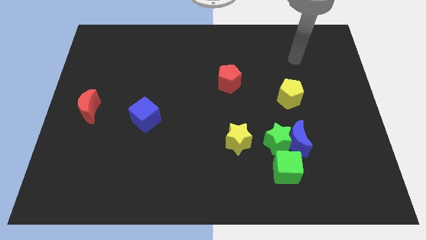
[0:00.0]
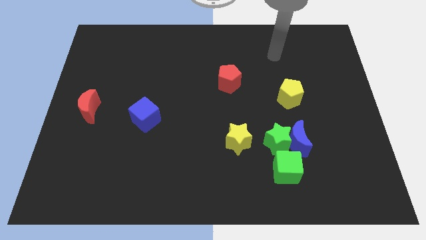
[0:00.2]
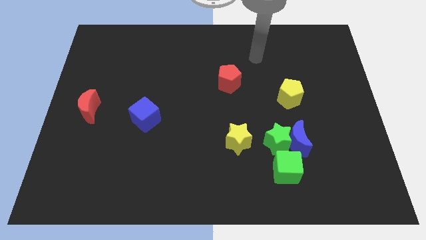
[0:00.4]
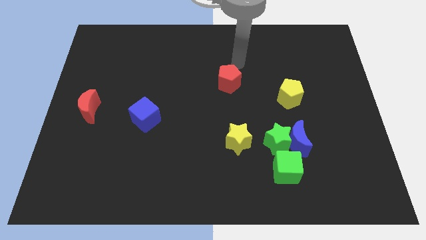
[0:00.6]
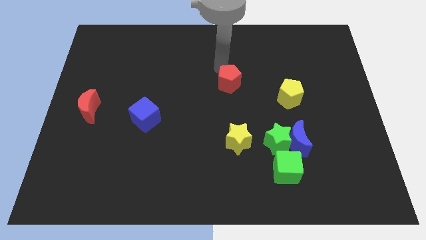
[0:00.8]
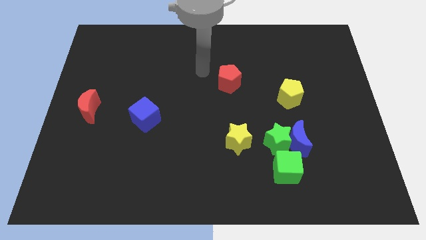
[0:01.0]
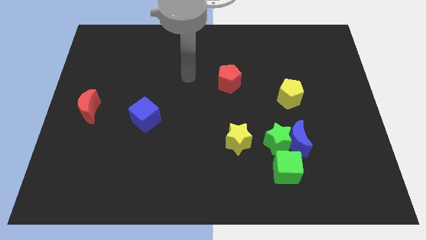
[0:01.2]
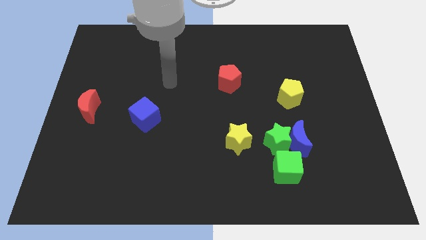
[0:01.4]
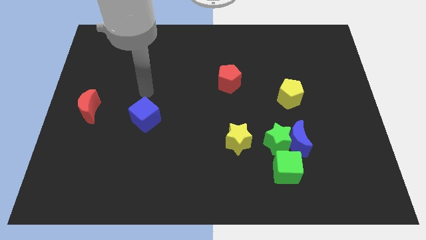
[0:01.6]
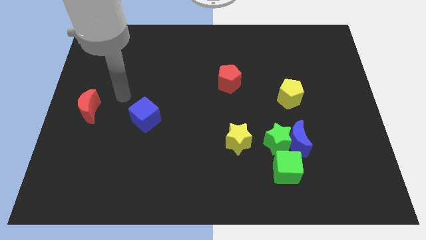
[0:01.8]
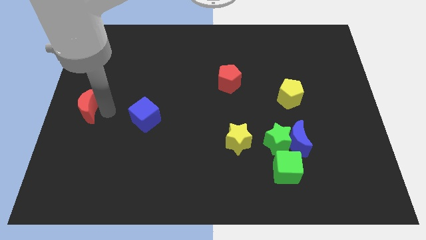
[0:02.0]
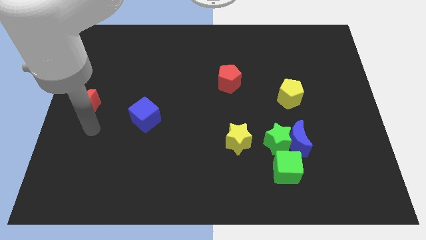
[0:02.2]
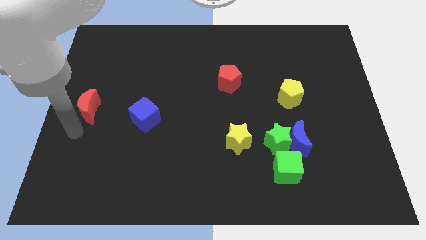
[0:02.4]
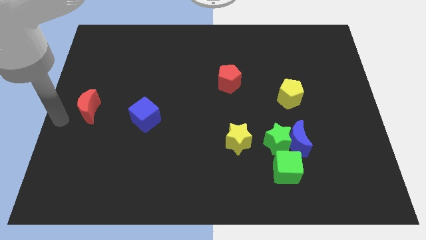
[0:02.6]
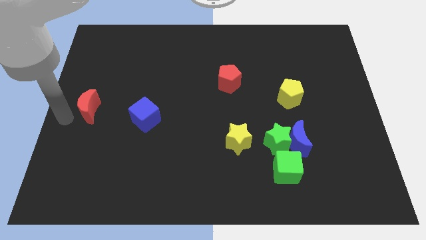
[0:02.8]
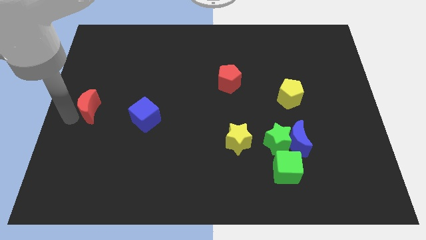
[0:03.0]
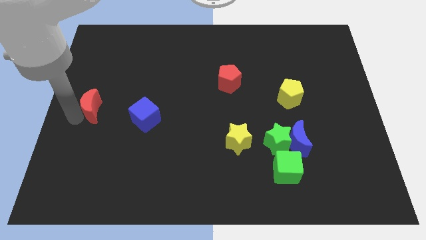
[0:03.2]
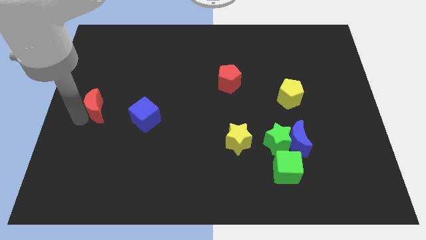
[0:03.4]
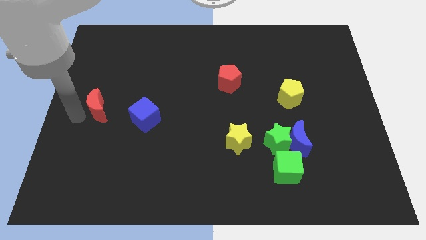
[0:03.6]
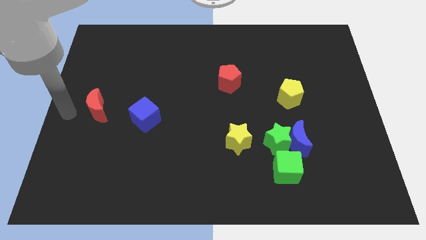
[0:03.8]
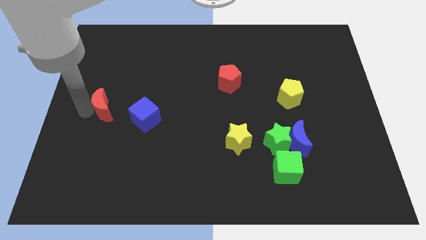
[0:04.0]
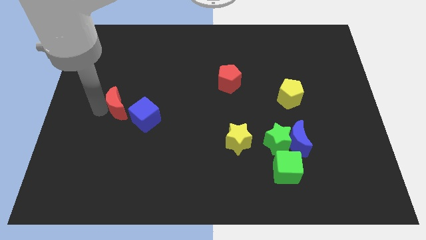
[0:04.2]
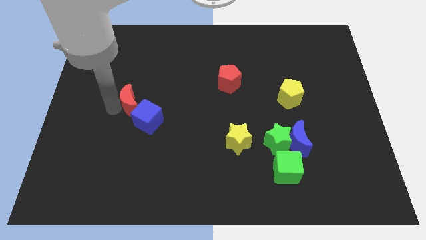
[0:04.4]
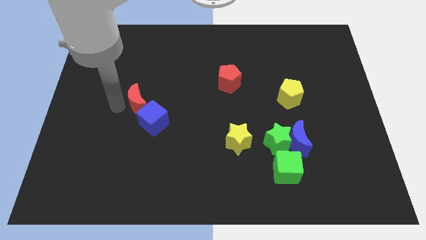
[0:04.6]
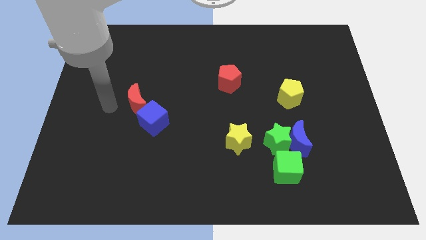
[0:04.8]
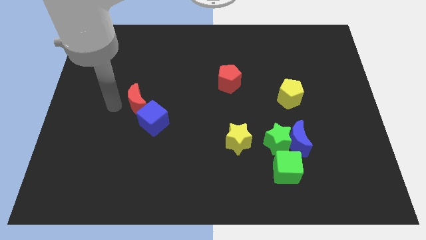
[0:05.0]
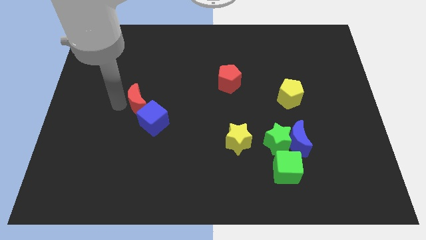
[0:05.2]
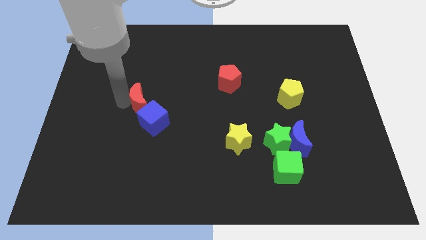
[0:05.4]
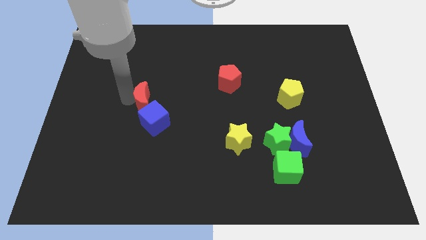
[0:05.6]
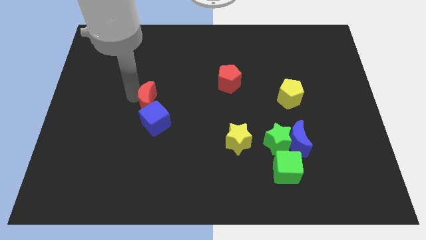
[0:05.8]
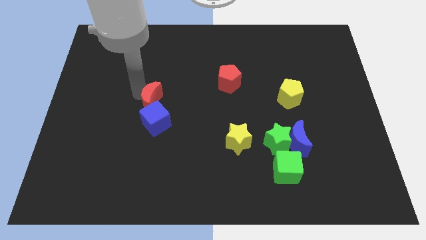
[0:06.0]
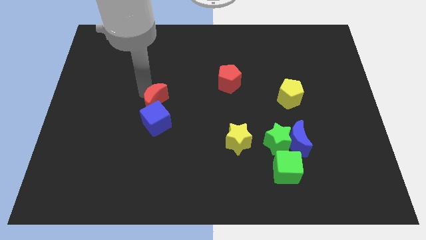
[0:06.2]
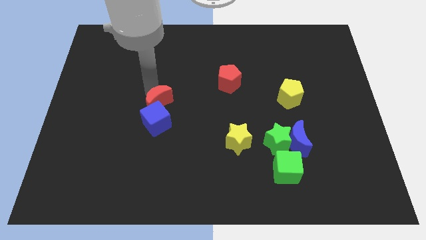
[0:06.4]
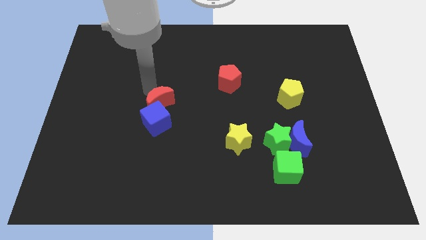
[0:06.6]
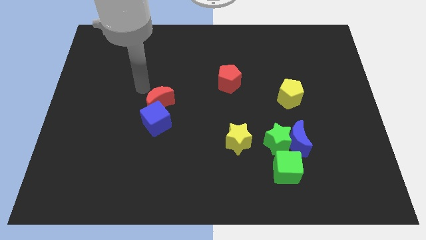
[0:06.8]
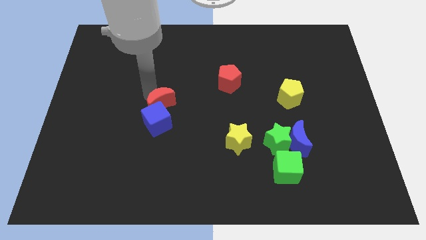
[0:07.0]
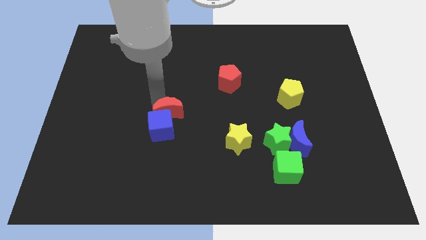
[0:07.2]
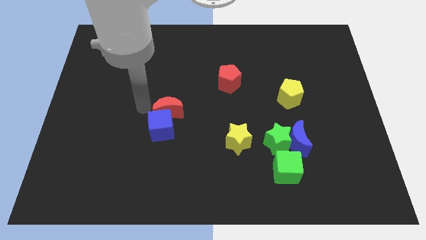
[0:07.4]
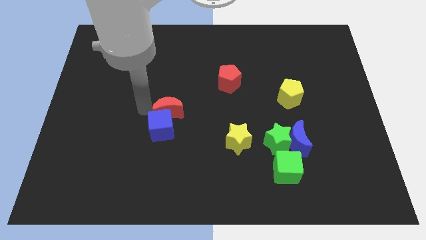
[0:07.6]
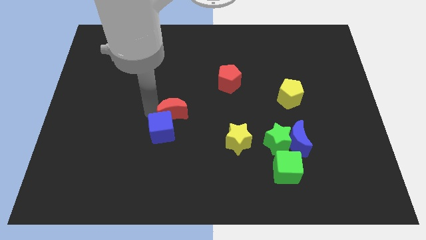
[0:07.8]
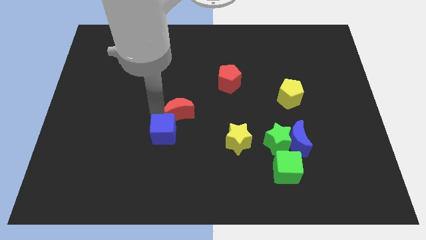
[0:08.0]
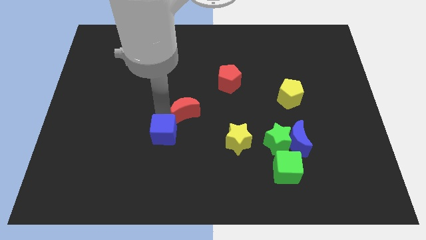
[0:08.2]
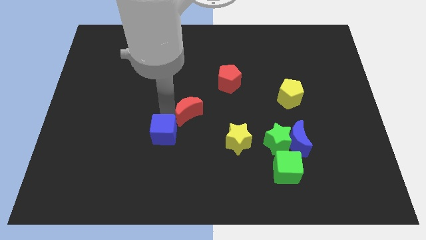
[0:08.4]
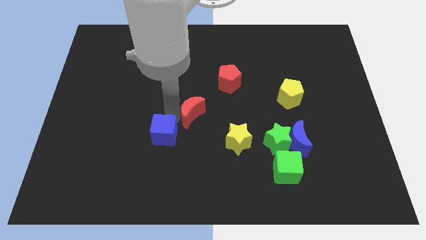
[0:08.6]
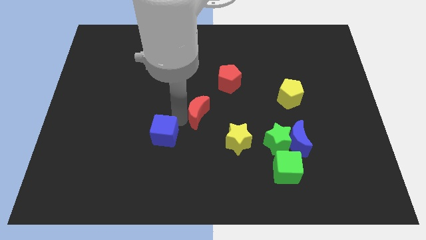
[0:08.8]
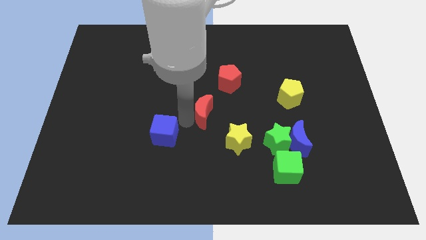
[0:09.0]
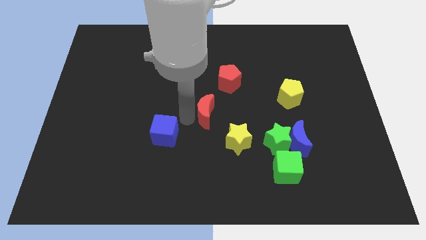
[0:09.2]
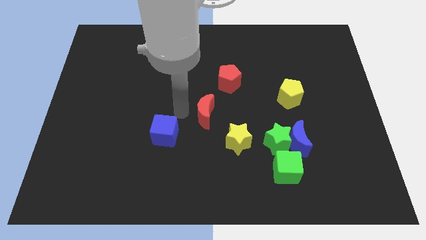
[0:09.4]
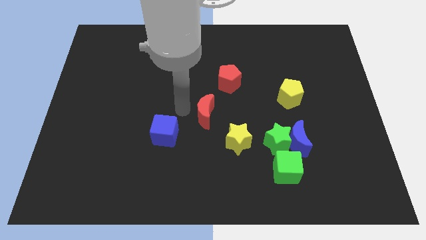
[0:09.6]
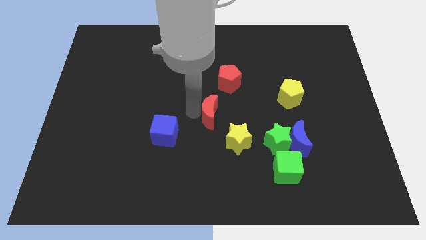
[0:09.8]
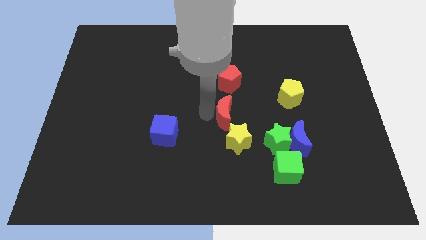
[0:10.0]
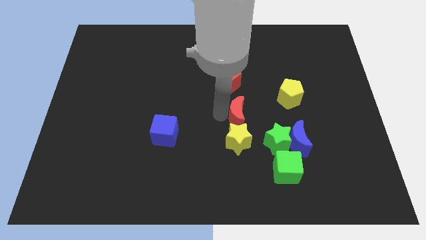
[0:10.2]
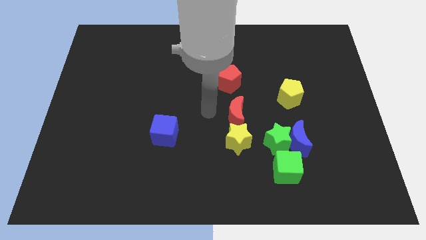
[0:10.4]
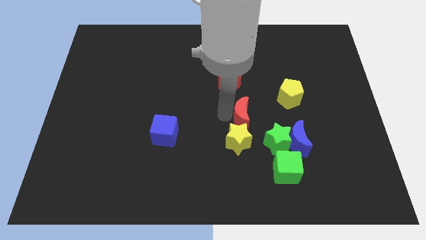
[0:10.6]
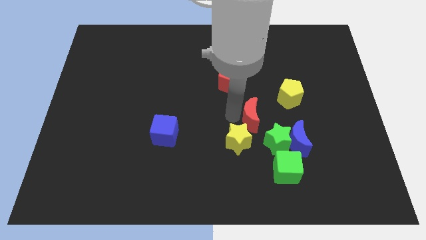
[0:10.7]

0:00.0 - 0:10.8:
slide the red moon to the top left side of the blue moon

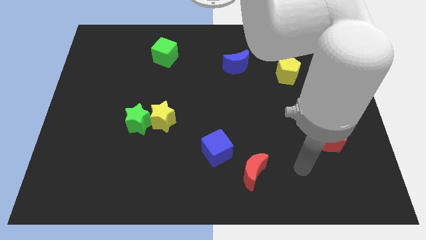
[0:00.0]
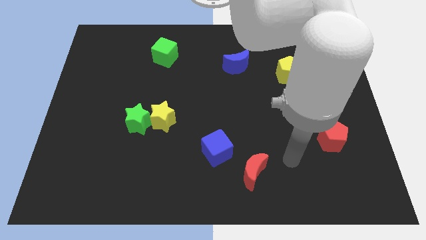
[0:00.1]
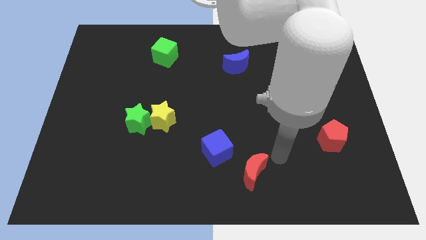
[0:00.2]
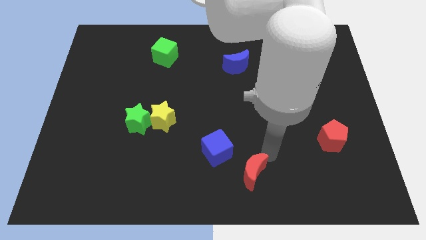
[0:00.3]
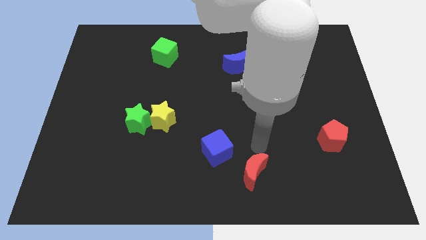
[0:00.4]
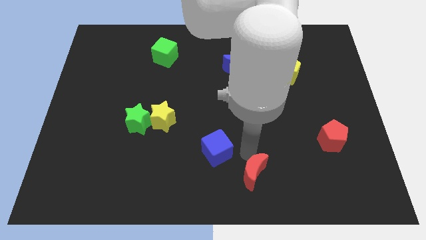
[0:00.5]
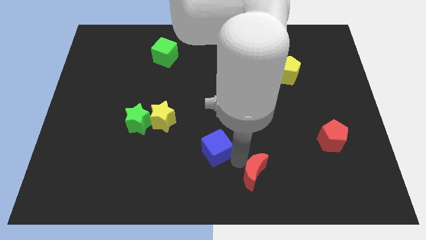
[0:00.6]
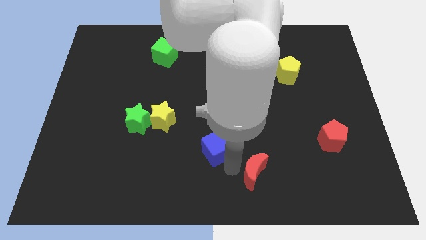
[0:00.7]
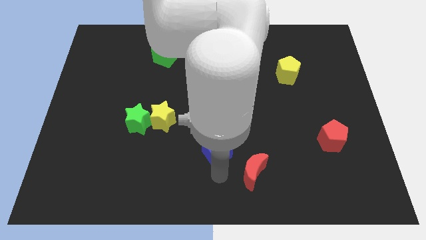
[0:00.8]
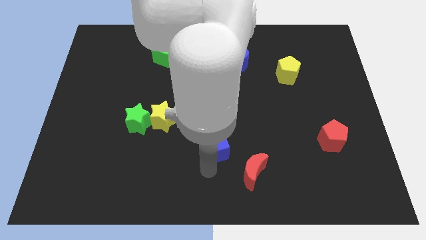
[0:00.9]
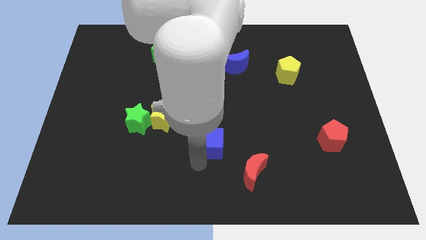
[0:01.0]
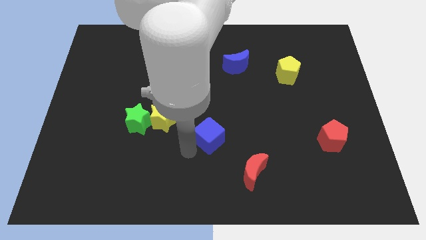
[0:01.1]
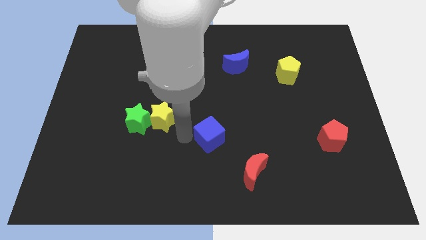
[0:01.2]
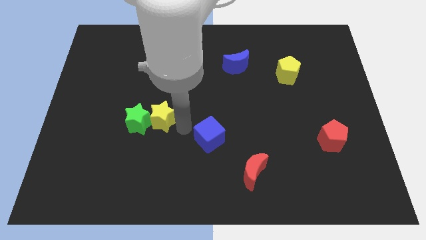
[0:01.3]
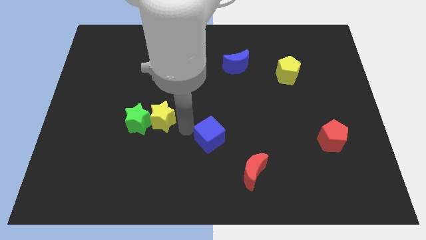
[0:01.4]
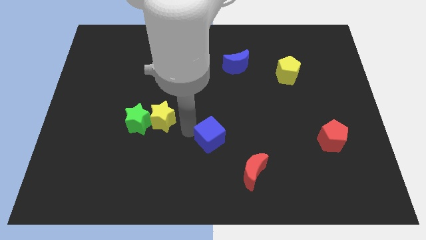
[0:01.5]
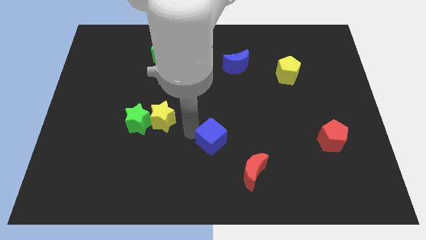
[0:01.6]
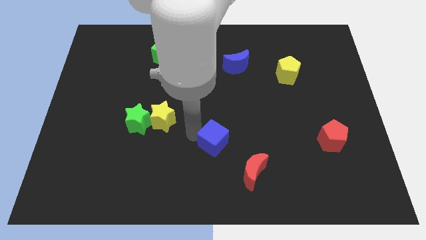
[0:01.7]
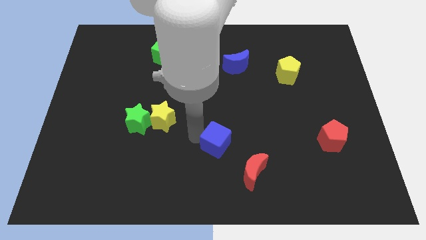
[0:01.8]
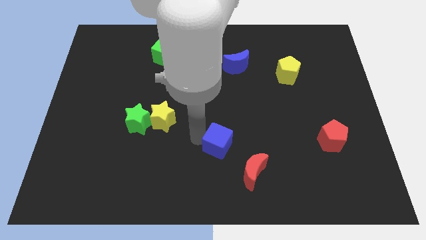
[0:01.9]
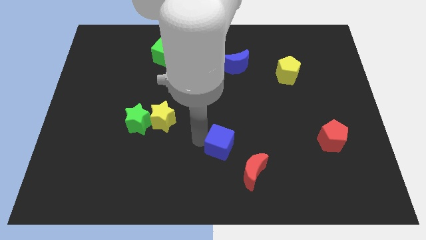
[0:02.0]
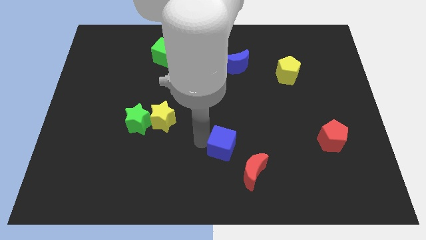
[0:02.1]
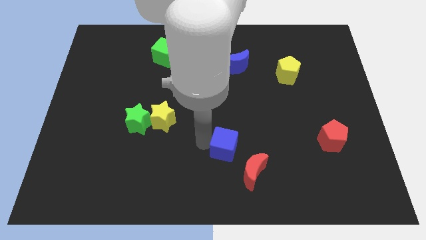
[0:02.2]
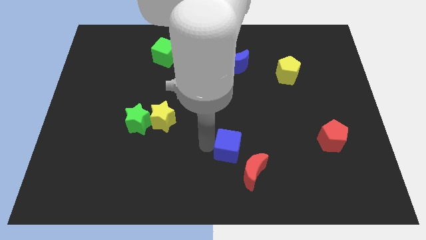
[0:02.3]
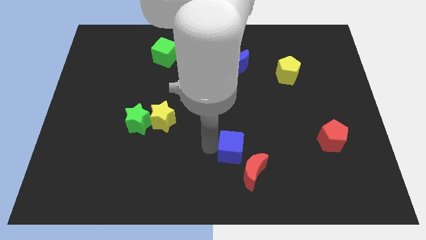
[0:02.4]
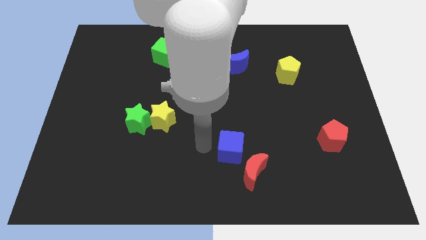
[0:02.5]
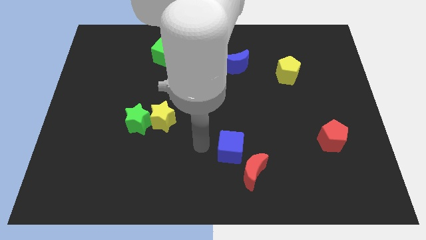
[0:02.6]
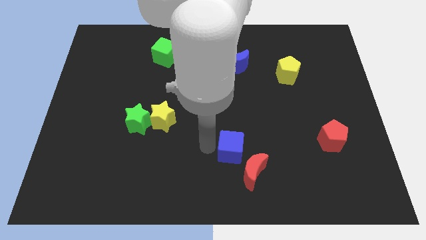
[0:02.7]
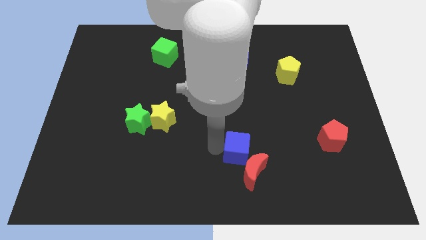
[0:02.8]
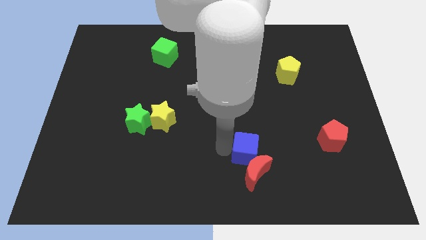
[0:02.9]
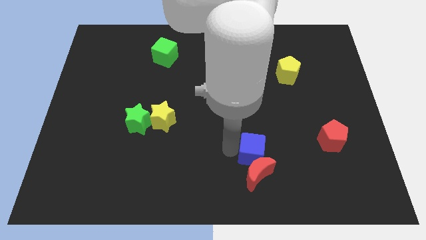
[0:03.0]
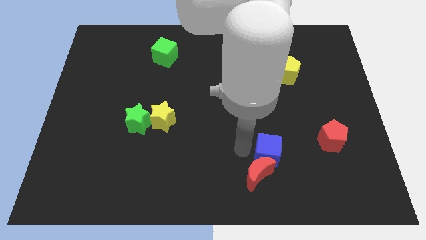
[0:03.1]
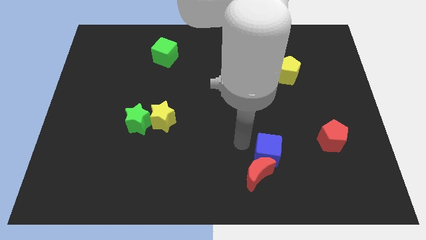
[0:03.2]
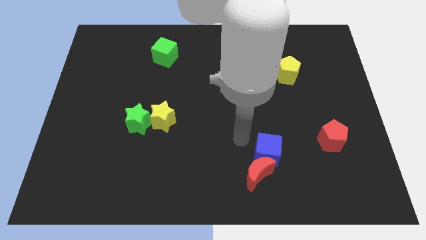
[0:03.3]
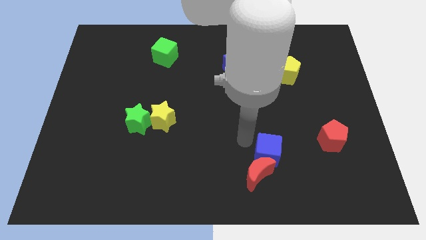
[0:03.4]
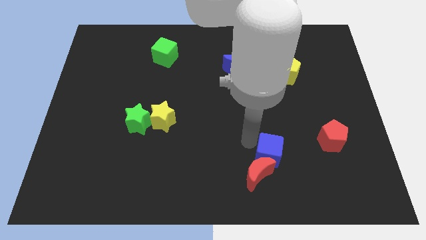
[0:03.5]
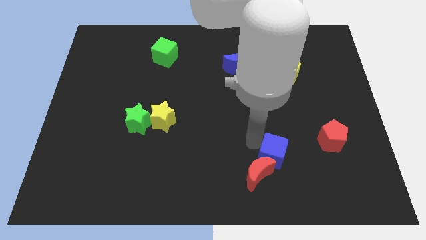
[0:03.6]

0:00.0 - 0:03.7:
push the blue cube just right of the red moon
